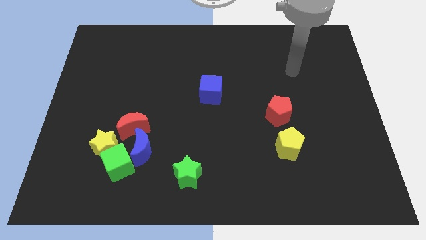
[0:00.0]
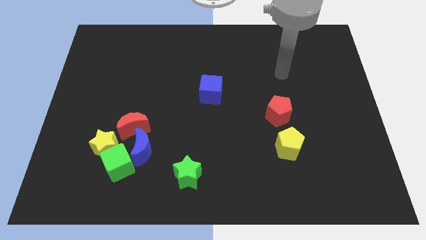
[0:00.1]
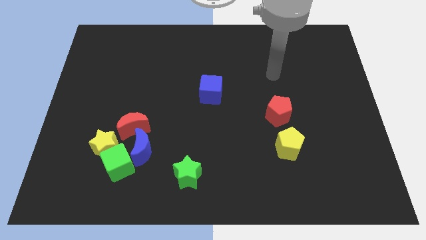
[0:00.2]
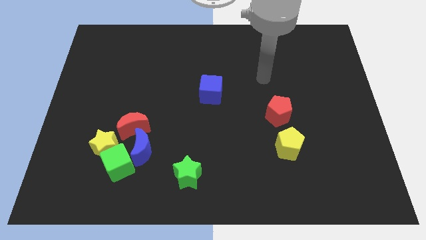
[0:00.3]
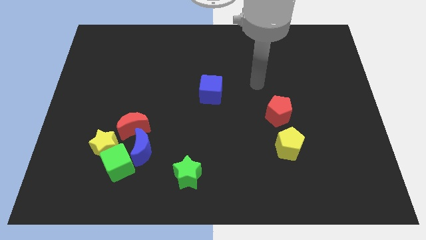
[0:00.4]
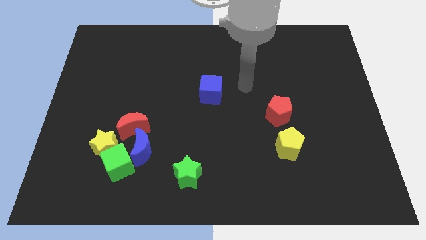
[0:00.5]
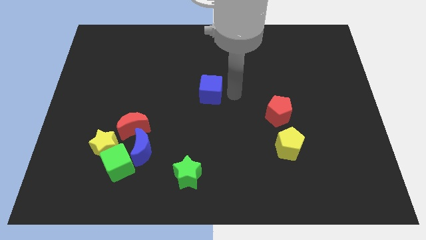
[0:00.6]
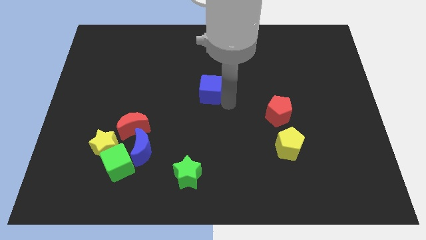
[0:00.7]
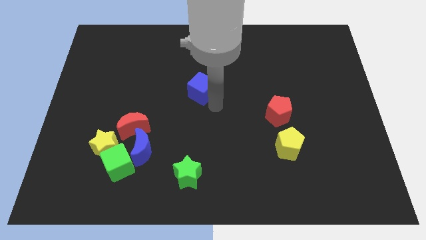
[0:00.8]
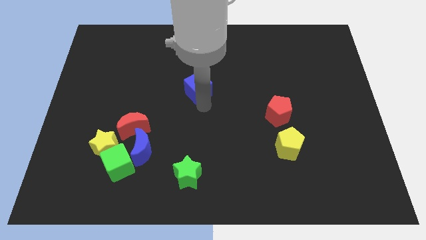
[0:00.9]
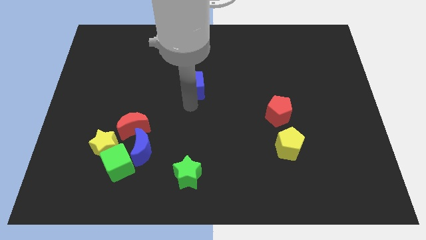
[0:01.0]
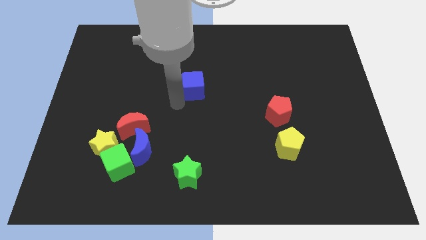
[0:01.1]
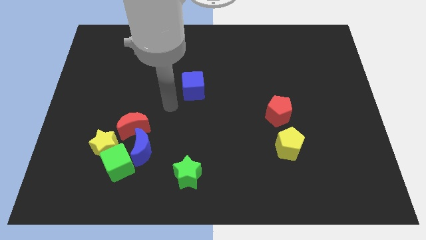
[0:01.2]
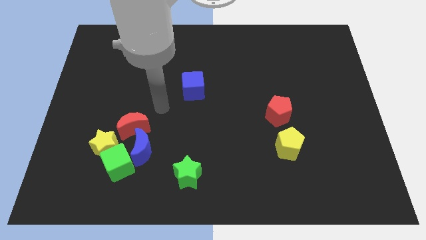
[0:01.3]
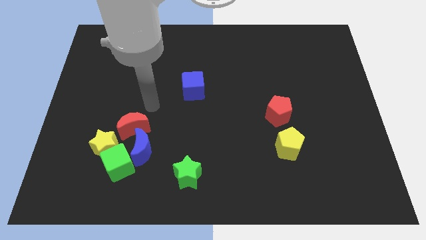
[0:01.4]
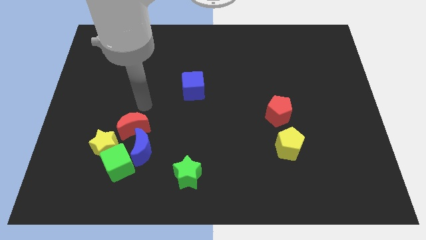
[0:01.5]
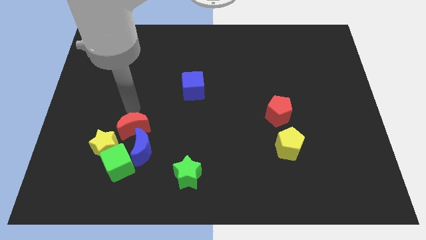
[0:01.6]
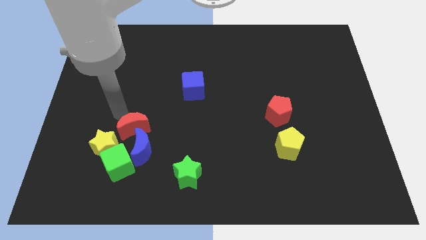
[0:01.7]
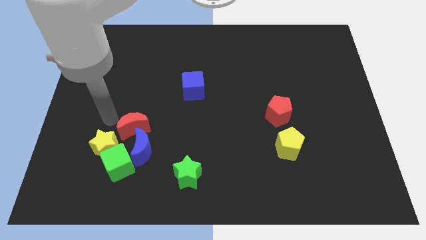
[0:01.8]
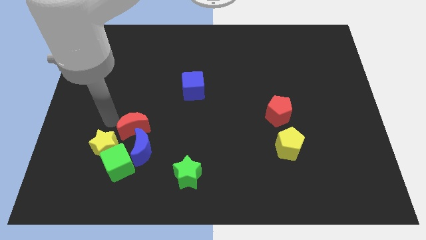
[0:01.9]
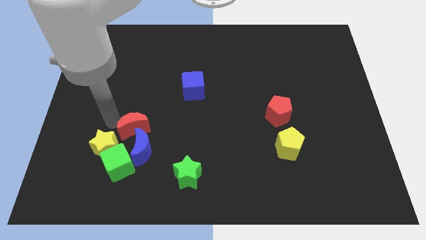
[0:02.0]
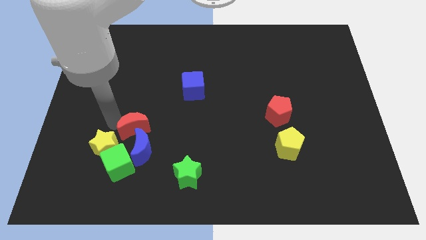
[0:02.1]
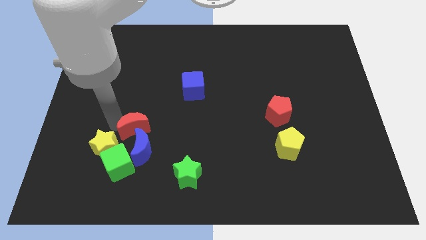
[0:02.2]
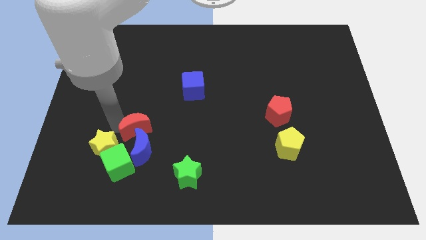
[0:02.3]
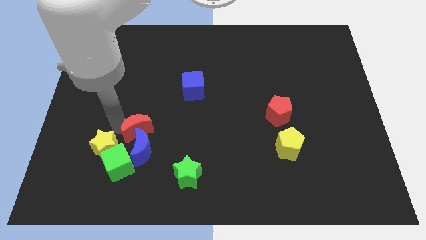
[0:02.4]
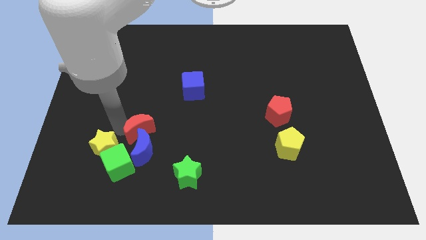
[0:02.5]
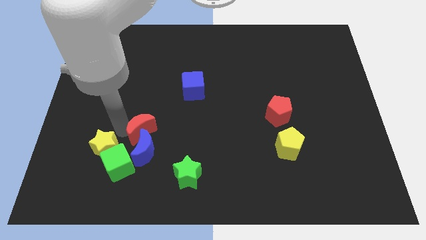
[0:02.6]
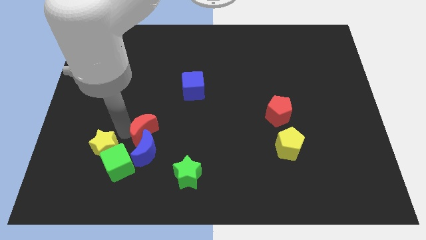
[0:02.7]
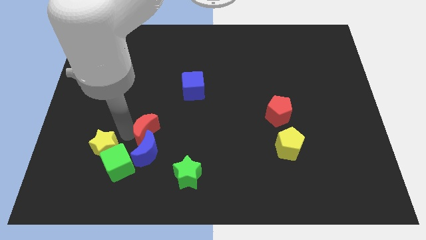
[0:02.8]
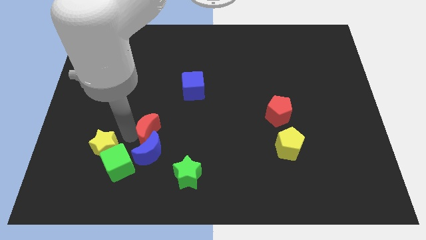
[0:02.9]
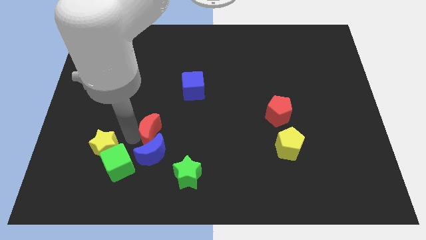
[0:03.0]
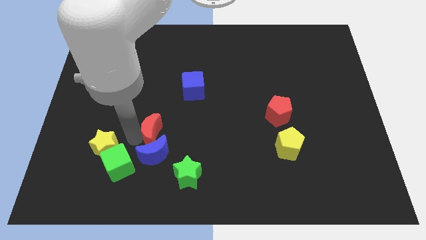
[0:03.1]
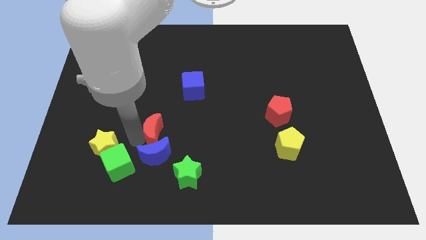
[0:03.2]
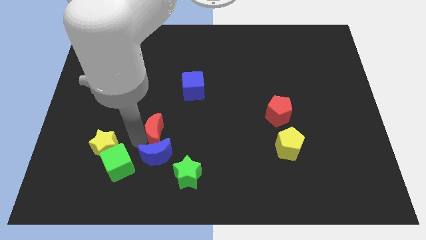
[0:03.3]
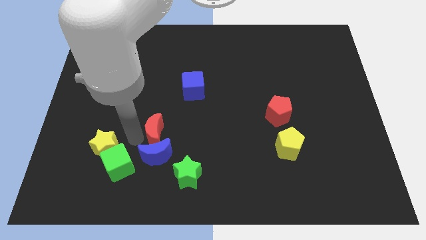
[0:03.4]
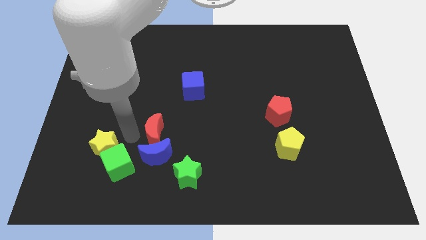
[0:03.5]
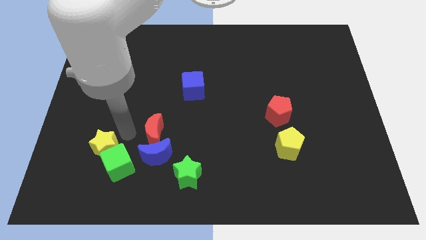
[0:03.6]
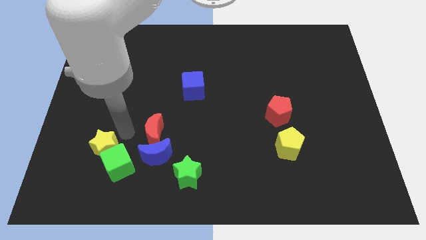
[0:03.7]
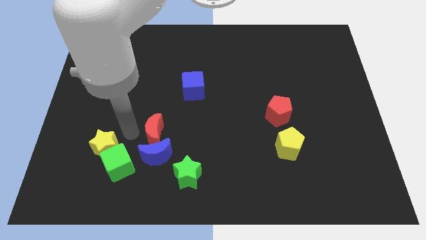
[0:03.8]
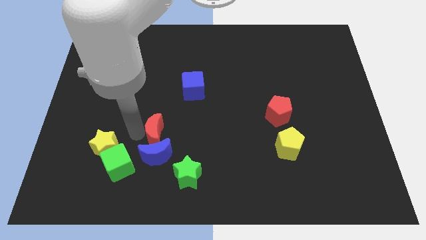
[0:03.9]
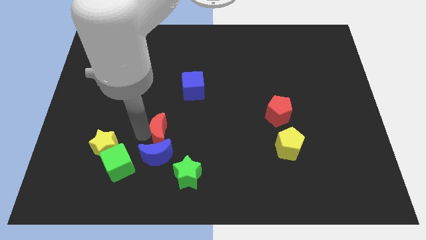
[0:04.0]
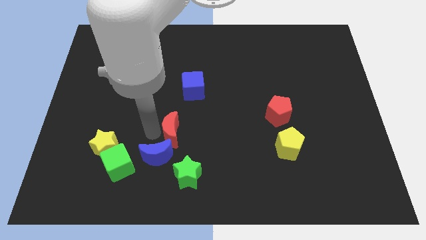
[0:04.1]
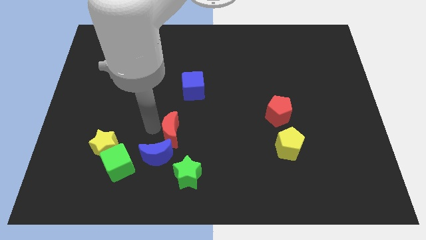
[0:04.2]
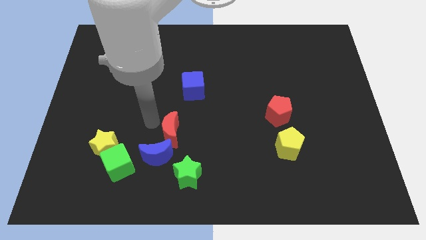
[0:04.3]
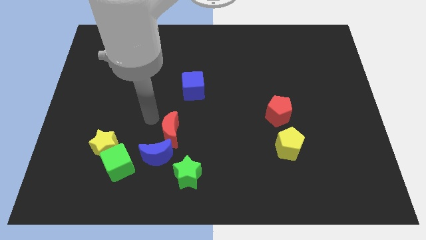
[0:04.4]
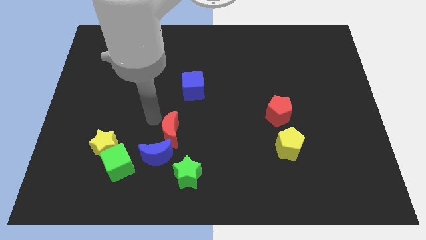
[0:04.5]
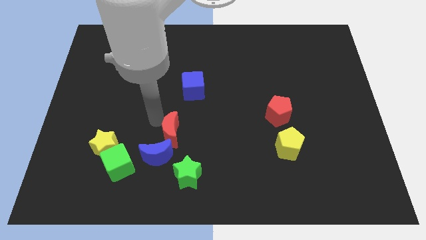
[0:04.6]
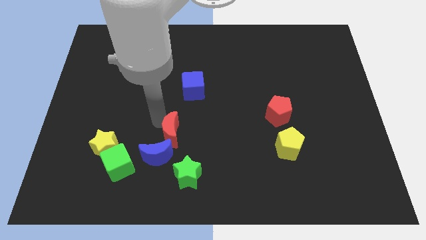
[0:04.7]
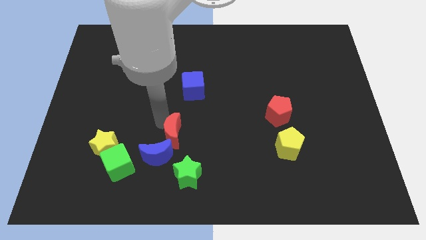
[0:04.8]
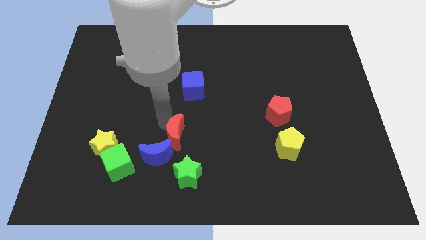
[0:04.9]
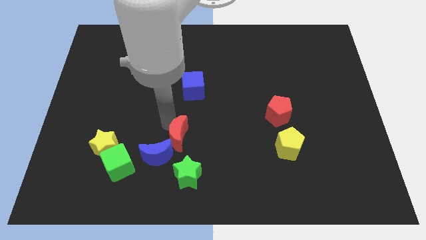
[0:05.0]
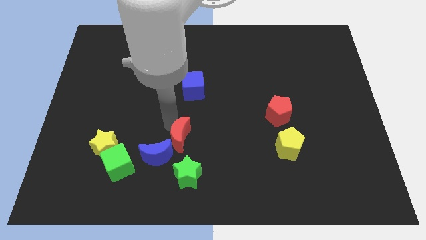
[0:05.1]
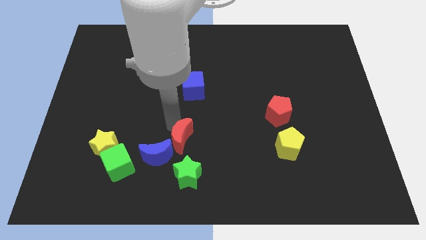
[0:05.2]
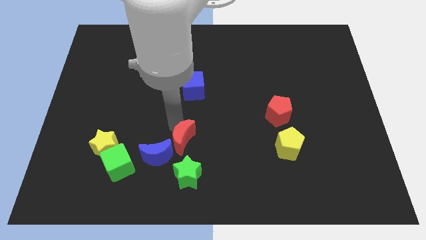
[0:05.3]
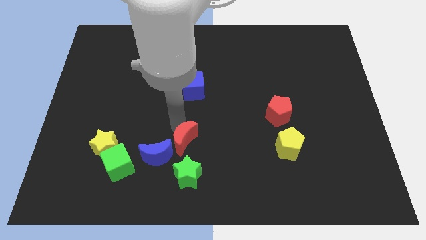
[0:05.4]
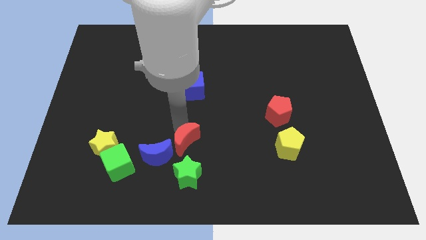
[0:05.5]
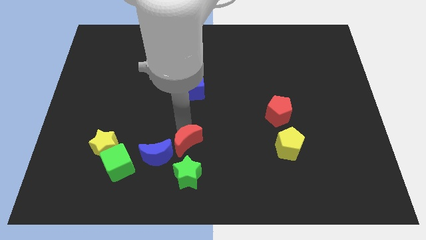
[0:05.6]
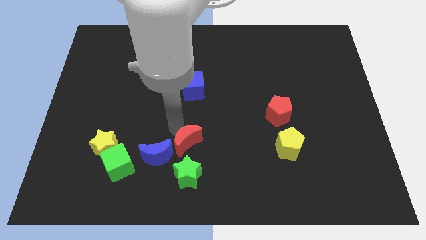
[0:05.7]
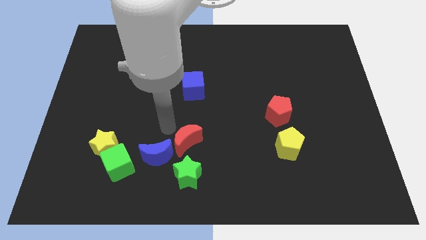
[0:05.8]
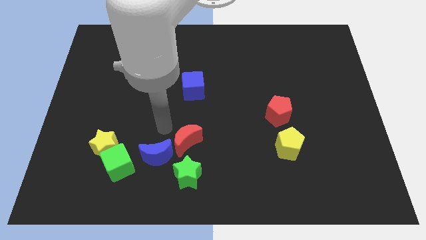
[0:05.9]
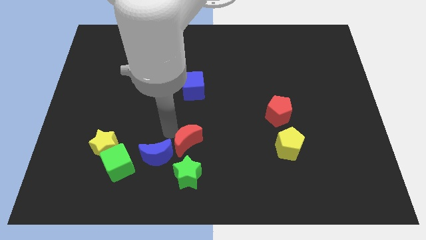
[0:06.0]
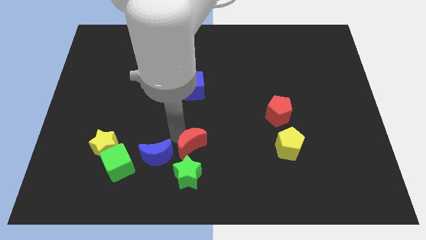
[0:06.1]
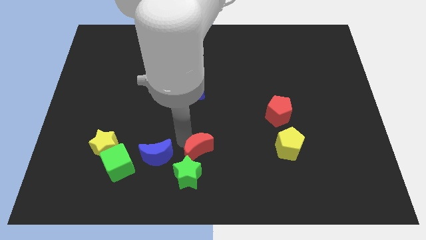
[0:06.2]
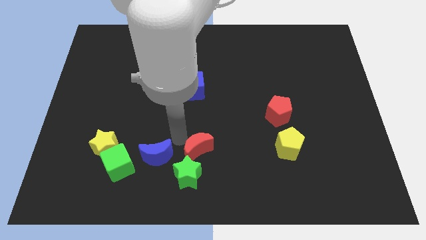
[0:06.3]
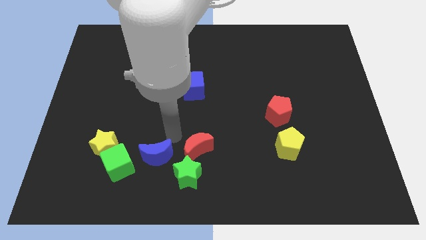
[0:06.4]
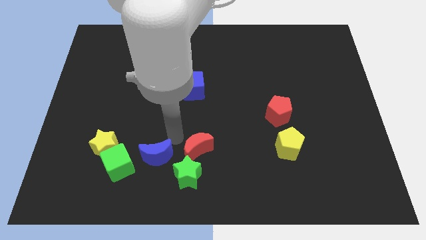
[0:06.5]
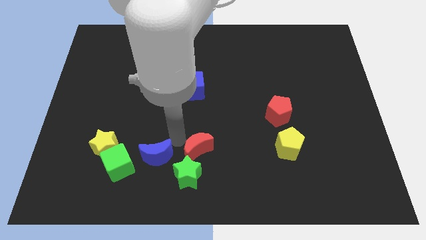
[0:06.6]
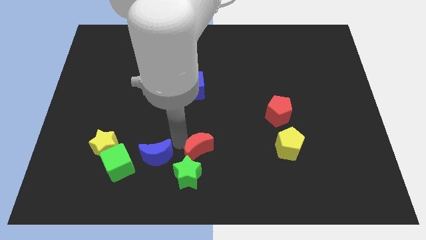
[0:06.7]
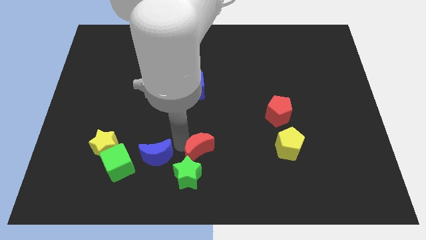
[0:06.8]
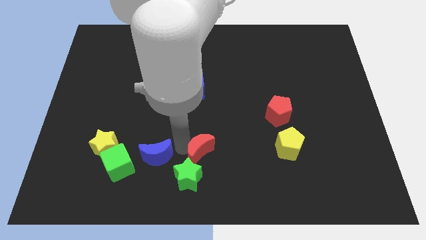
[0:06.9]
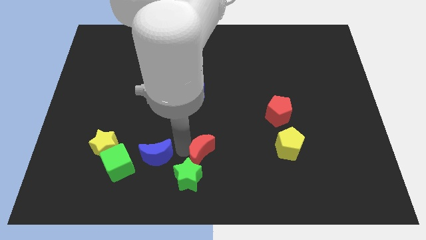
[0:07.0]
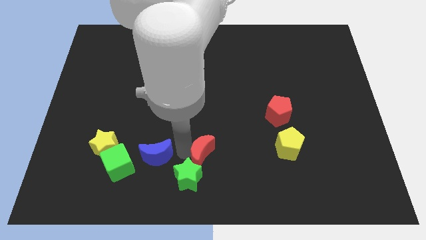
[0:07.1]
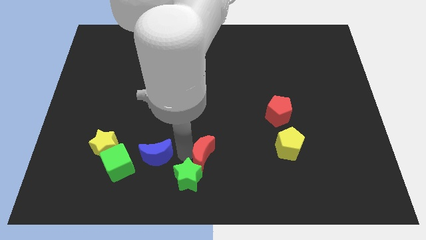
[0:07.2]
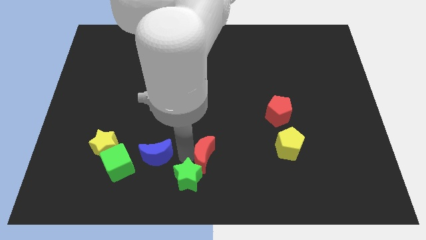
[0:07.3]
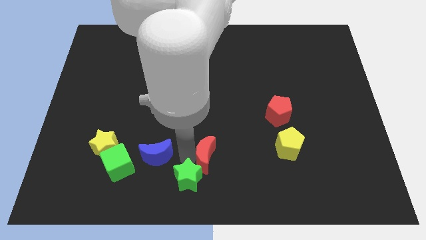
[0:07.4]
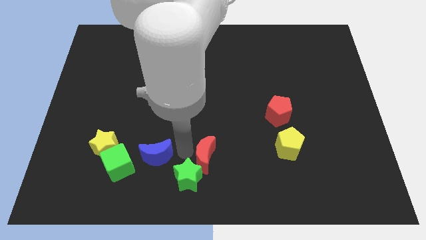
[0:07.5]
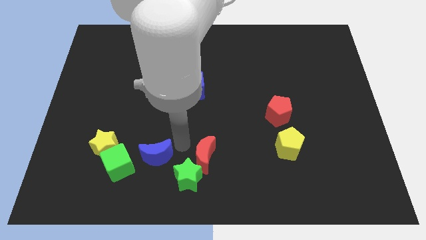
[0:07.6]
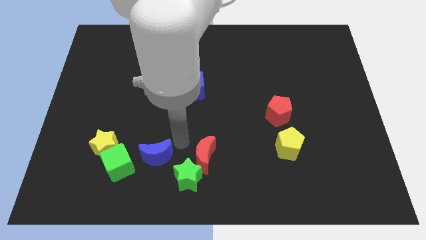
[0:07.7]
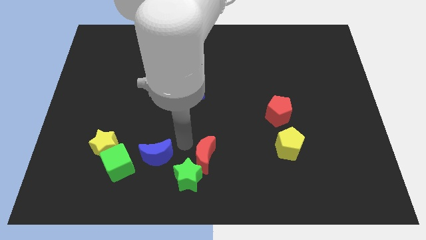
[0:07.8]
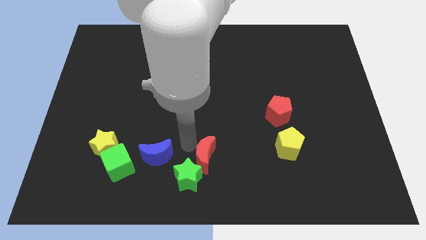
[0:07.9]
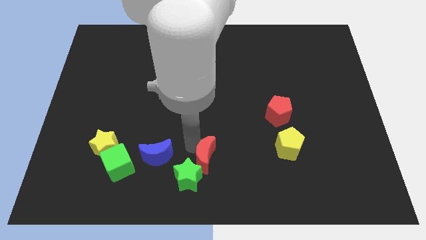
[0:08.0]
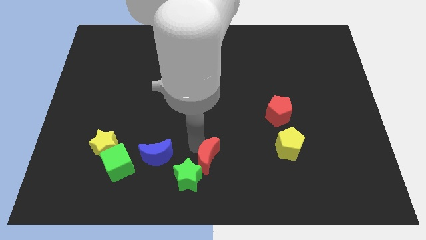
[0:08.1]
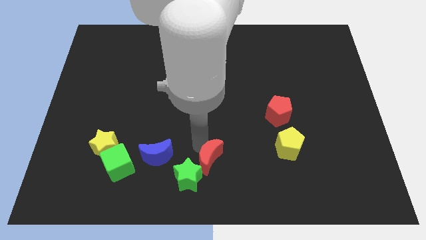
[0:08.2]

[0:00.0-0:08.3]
push the red moon right of the green star

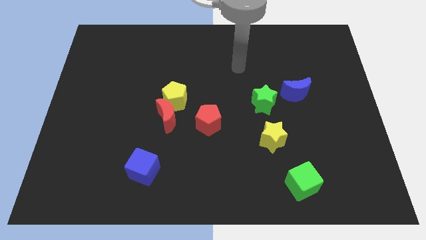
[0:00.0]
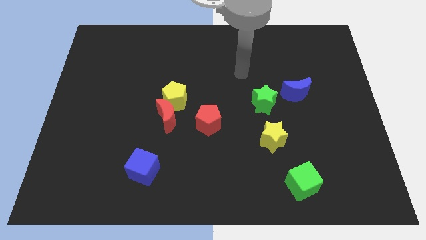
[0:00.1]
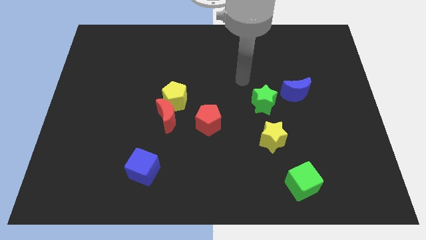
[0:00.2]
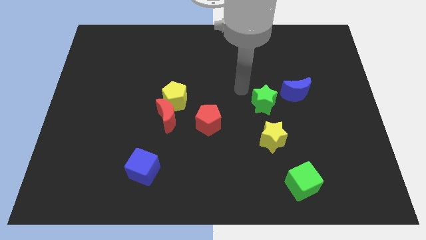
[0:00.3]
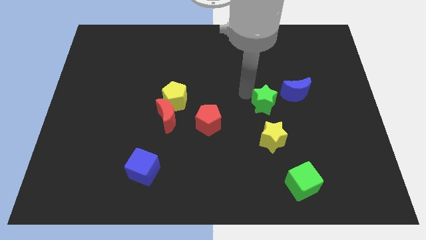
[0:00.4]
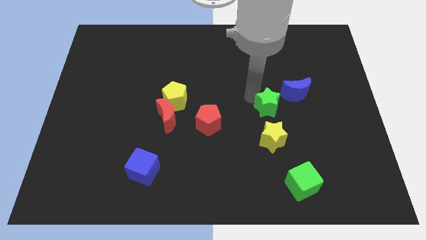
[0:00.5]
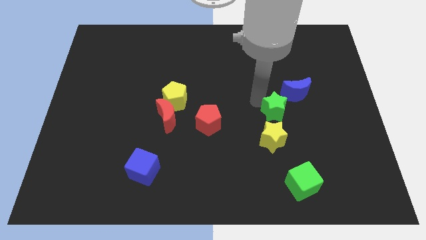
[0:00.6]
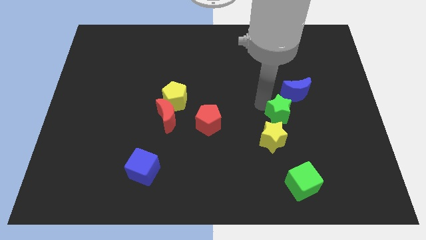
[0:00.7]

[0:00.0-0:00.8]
move the green star to the bottom side of the blue moon
